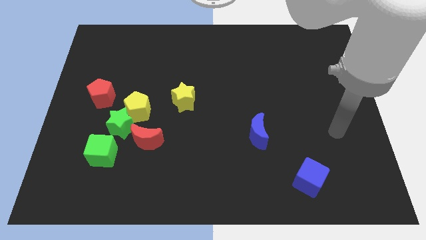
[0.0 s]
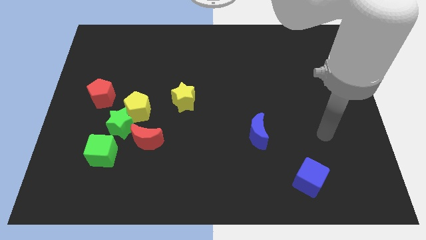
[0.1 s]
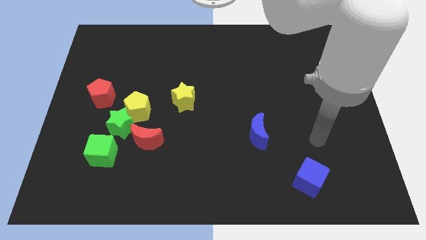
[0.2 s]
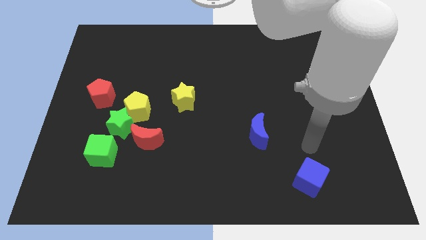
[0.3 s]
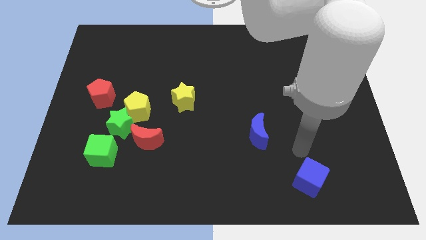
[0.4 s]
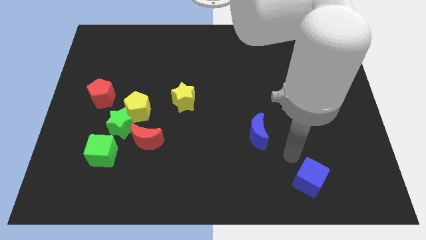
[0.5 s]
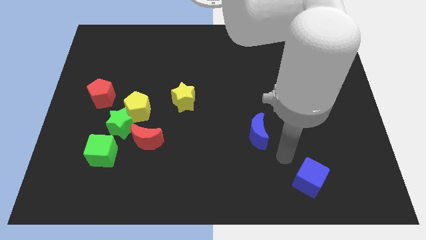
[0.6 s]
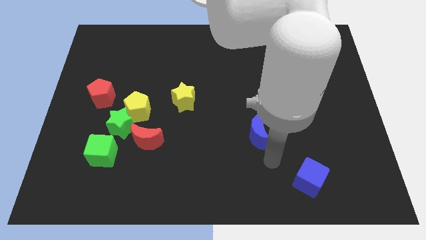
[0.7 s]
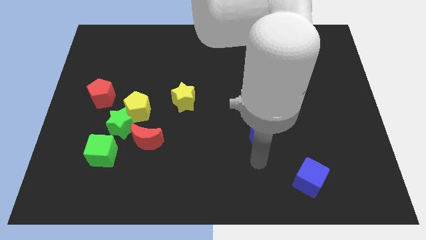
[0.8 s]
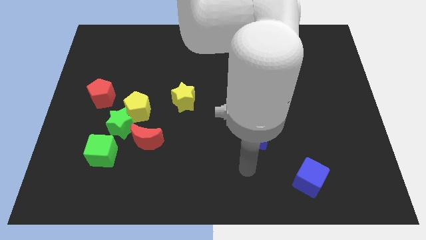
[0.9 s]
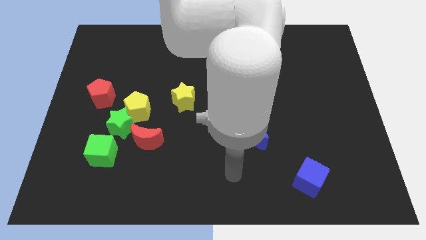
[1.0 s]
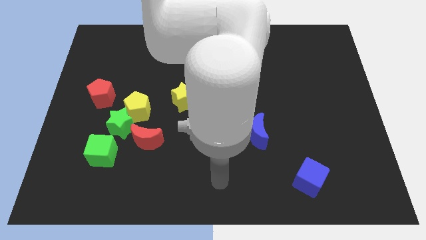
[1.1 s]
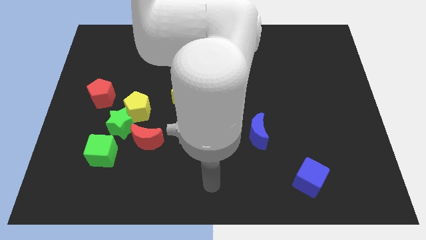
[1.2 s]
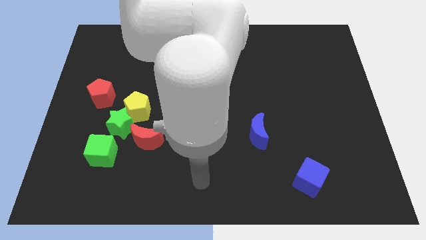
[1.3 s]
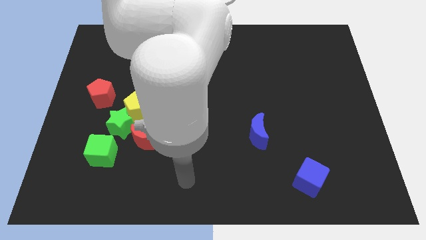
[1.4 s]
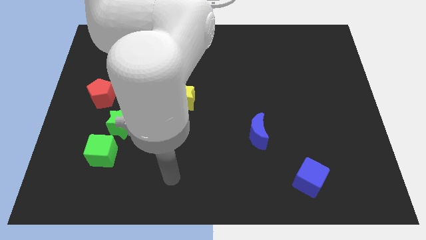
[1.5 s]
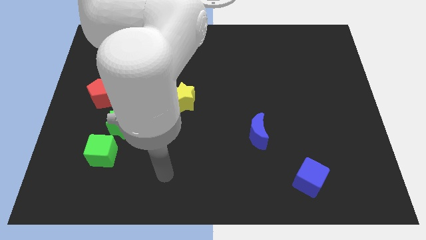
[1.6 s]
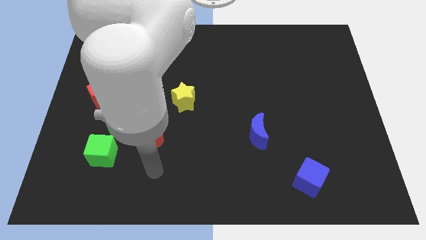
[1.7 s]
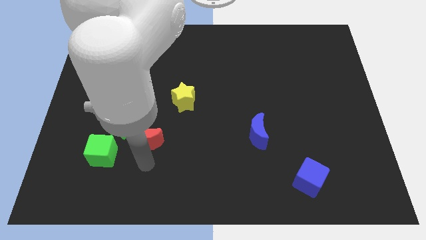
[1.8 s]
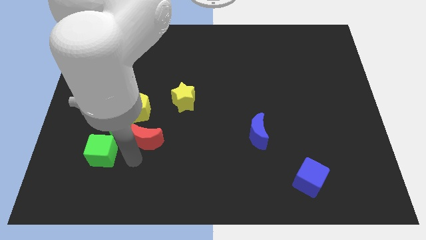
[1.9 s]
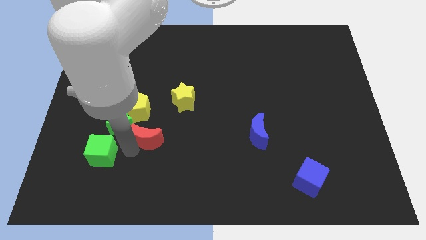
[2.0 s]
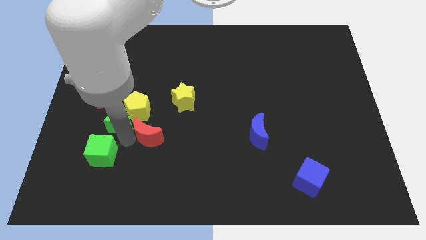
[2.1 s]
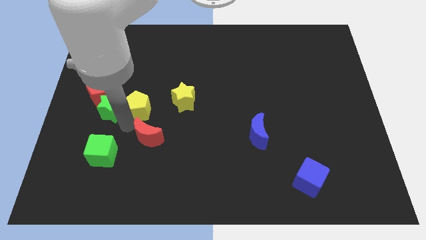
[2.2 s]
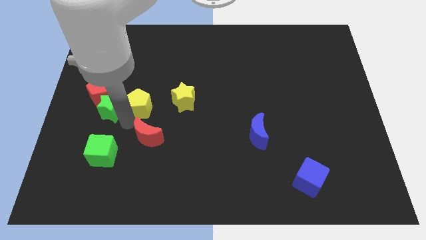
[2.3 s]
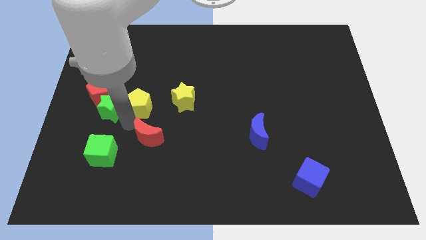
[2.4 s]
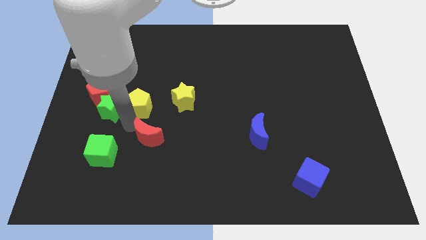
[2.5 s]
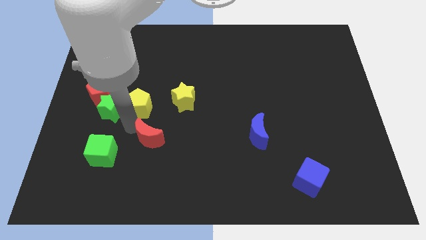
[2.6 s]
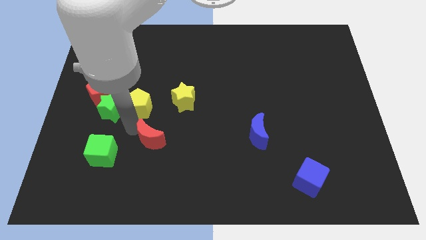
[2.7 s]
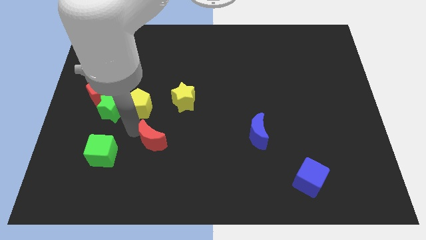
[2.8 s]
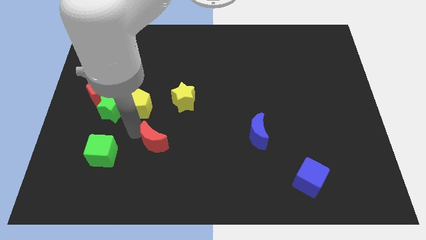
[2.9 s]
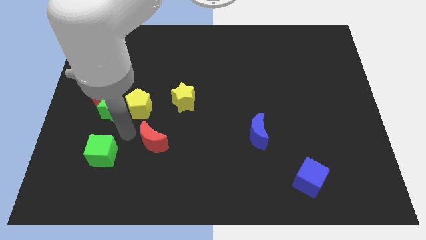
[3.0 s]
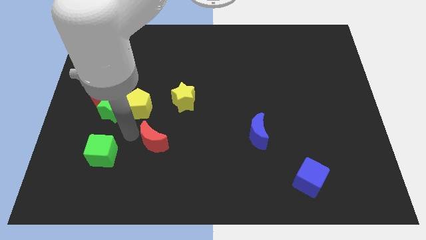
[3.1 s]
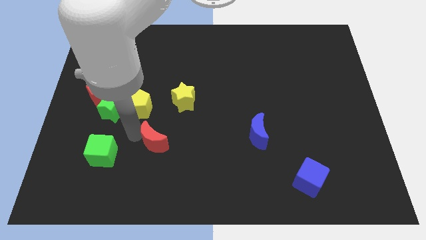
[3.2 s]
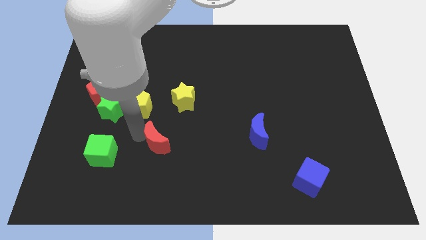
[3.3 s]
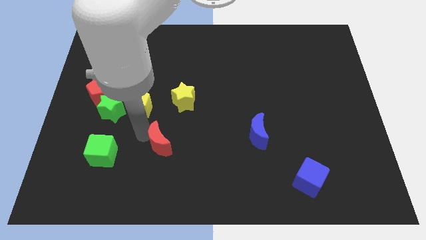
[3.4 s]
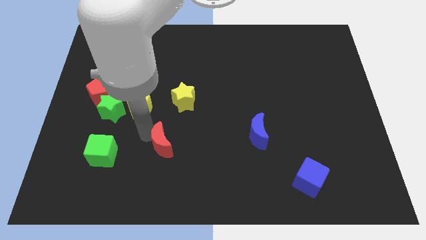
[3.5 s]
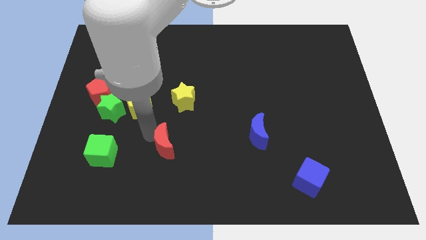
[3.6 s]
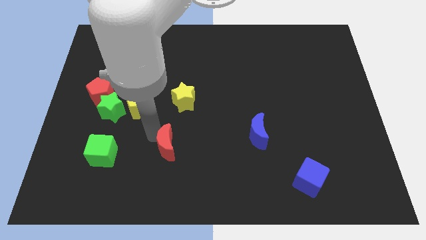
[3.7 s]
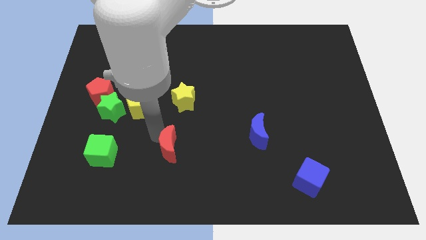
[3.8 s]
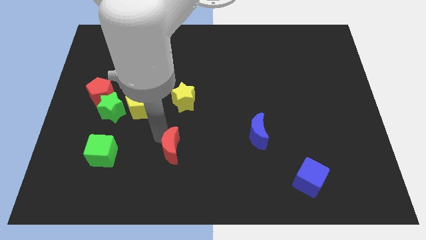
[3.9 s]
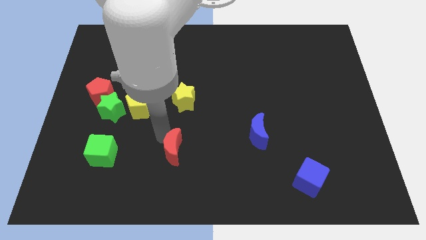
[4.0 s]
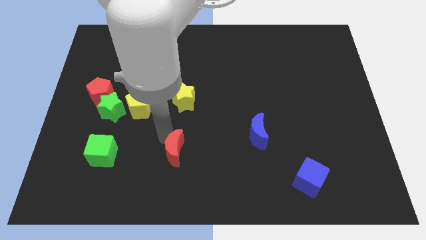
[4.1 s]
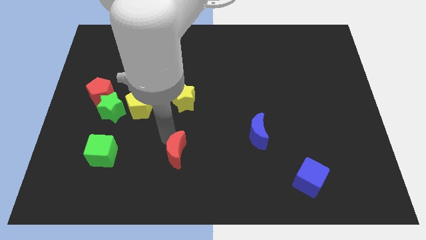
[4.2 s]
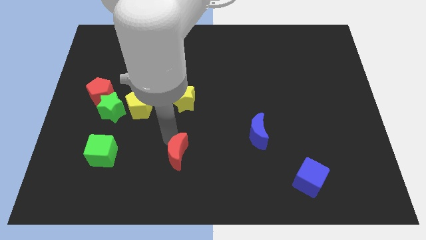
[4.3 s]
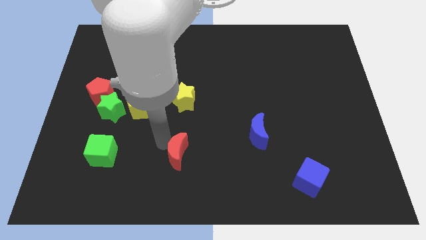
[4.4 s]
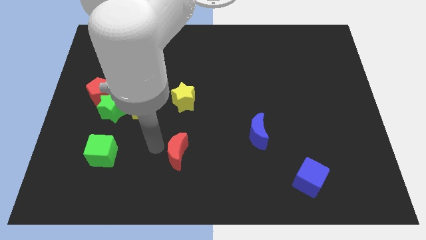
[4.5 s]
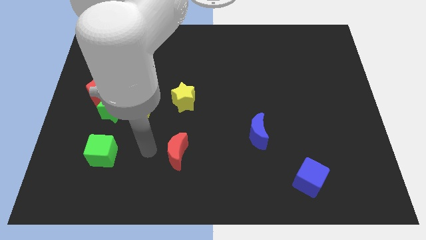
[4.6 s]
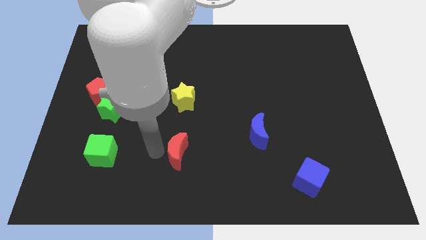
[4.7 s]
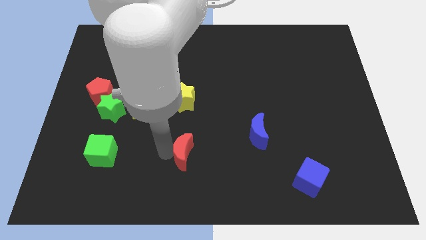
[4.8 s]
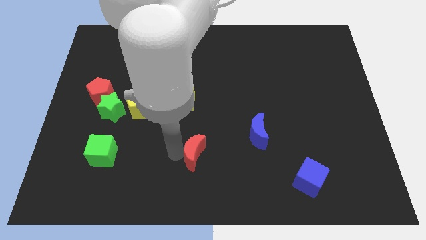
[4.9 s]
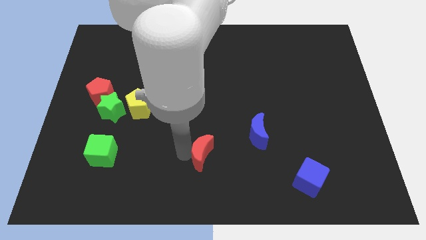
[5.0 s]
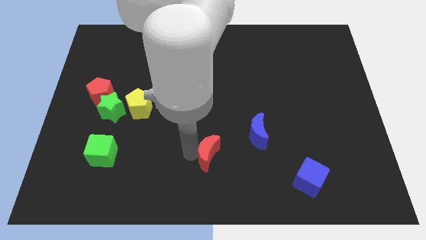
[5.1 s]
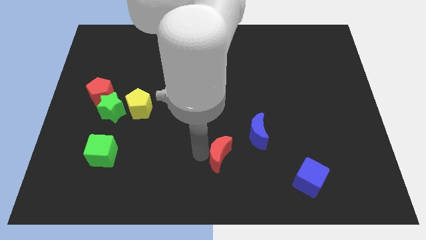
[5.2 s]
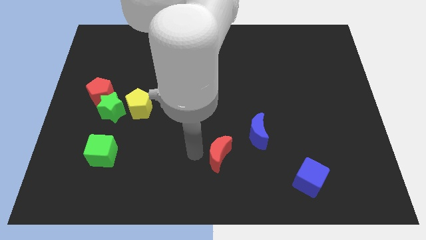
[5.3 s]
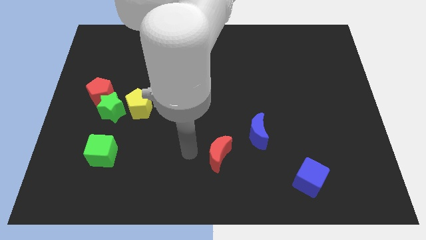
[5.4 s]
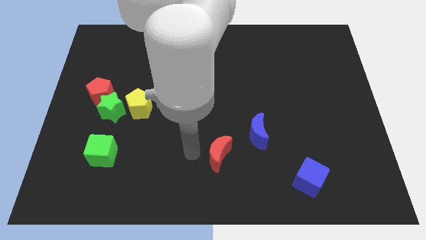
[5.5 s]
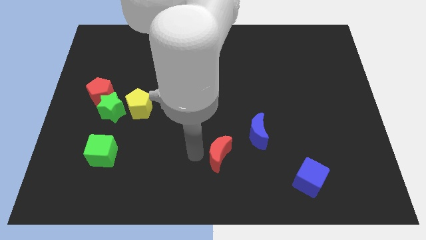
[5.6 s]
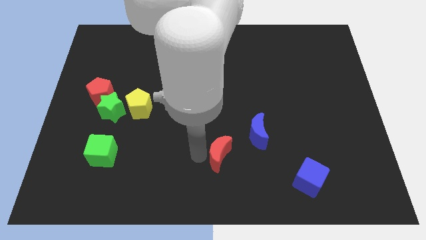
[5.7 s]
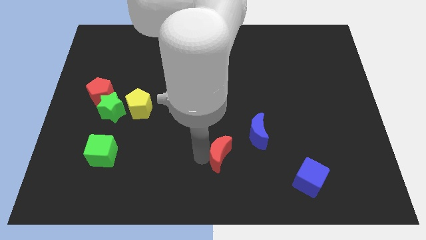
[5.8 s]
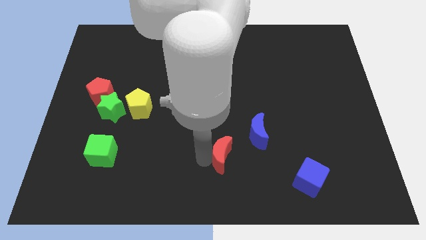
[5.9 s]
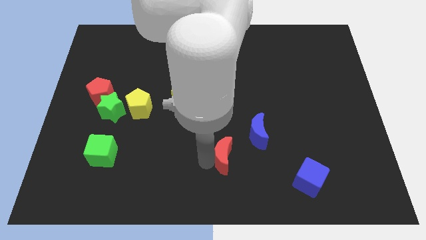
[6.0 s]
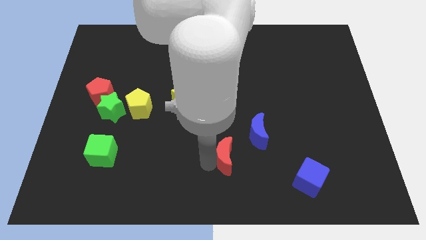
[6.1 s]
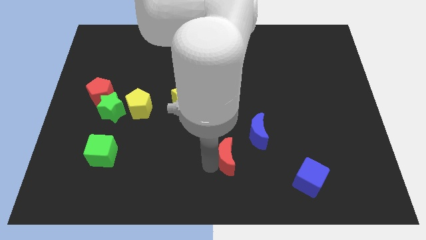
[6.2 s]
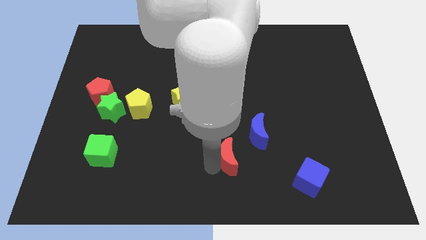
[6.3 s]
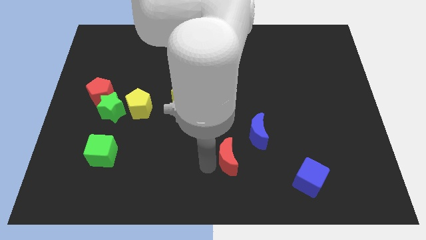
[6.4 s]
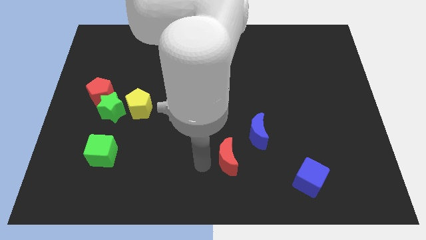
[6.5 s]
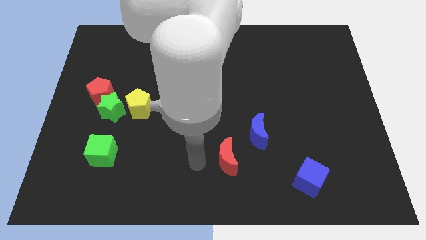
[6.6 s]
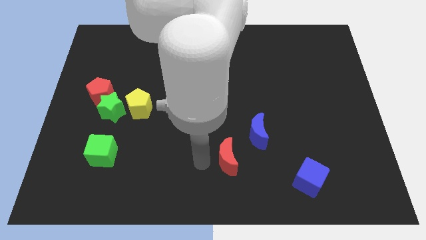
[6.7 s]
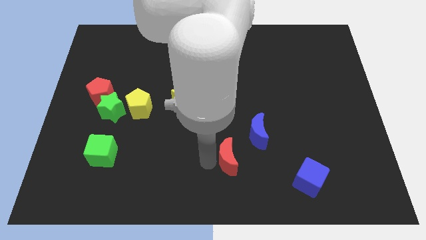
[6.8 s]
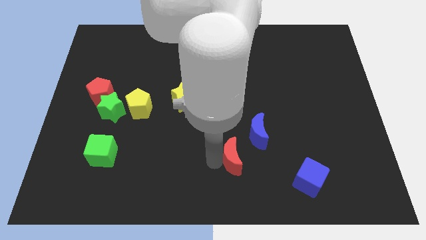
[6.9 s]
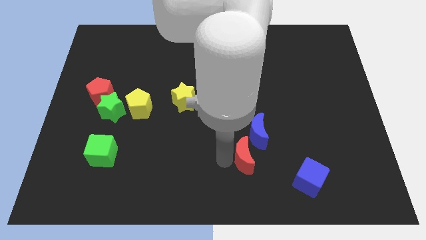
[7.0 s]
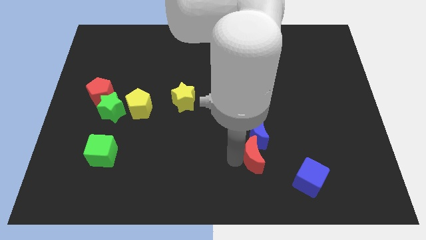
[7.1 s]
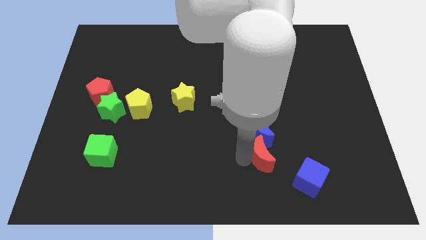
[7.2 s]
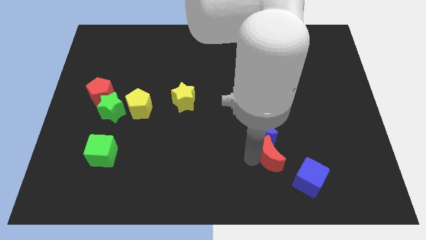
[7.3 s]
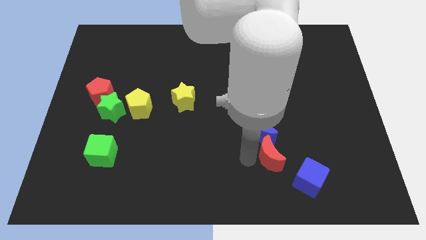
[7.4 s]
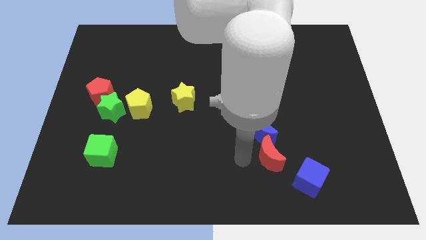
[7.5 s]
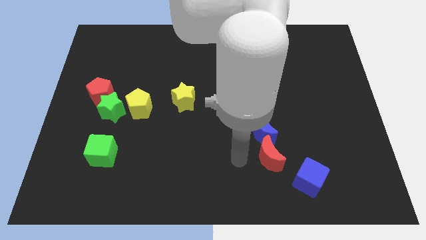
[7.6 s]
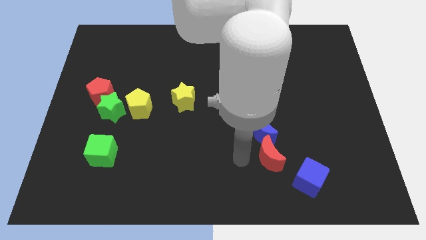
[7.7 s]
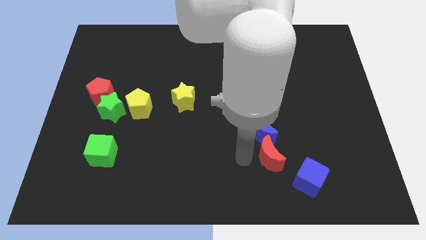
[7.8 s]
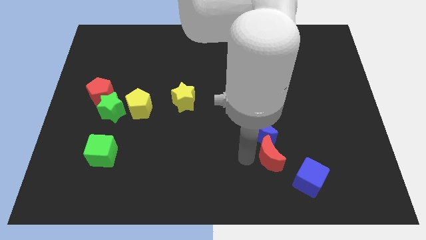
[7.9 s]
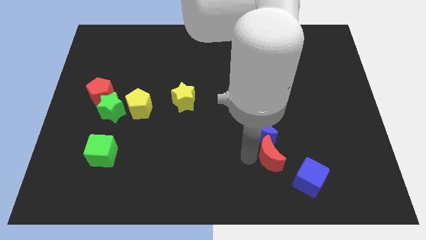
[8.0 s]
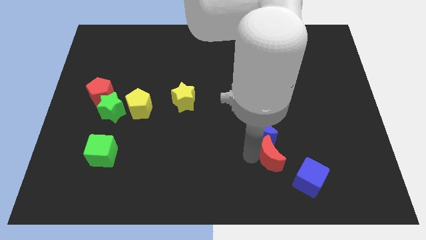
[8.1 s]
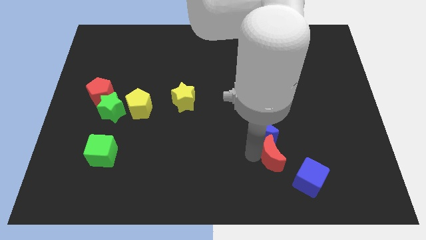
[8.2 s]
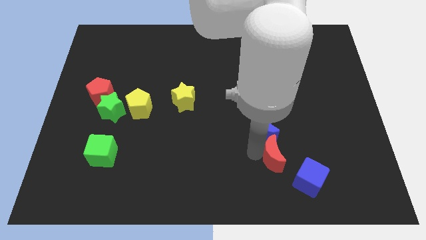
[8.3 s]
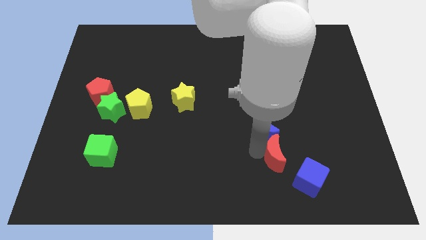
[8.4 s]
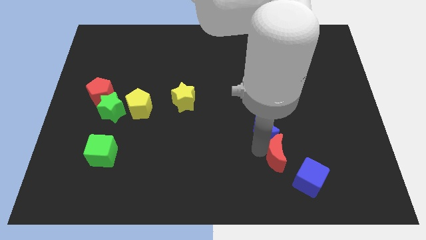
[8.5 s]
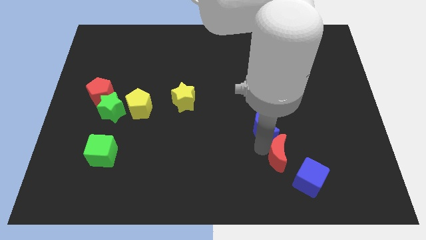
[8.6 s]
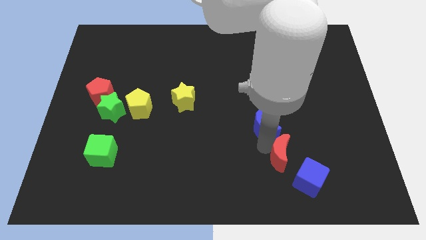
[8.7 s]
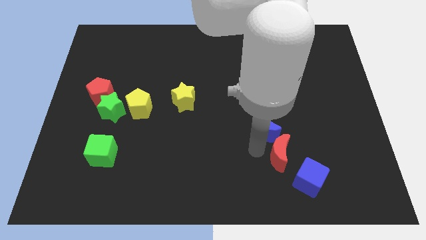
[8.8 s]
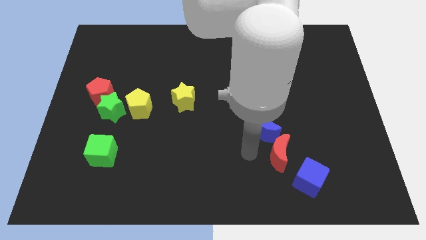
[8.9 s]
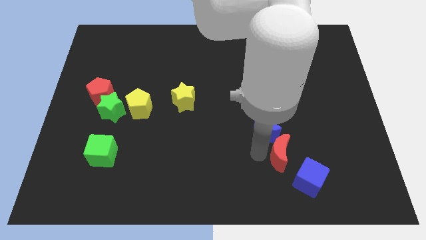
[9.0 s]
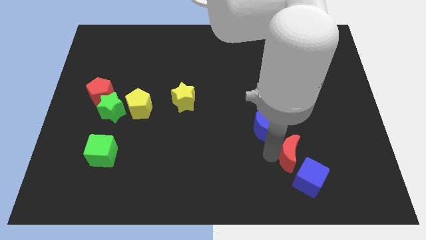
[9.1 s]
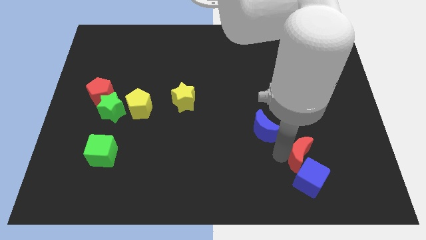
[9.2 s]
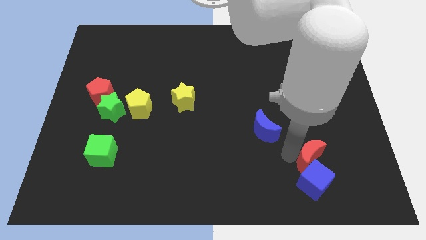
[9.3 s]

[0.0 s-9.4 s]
slide the red moon diagonally up and to the right of the blue cube
